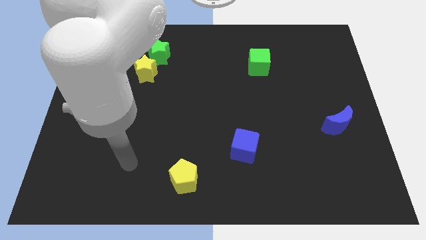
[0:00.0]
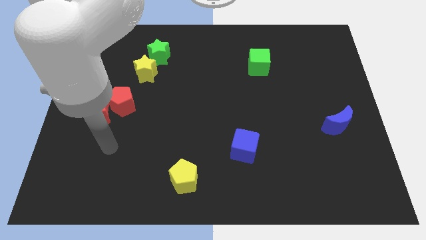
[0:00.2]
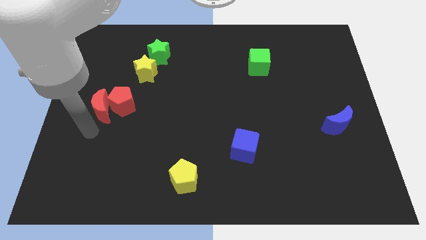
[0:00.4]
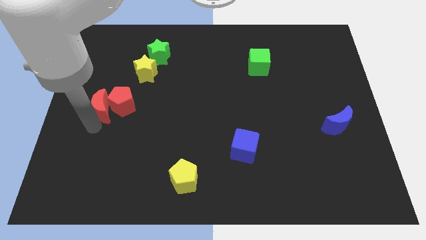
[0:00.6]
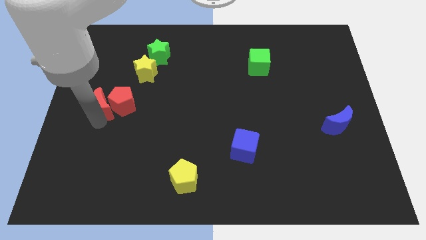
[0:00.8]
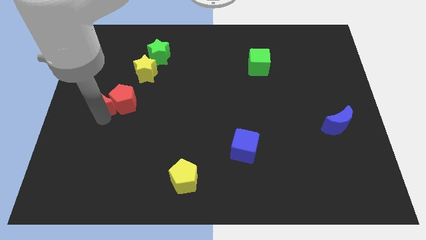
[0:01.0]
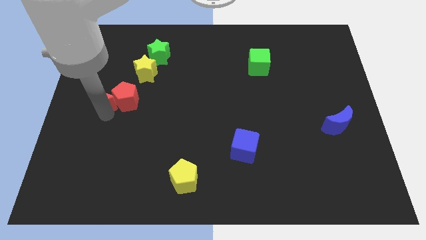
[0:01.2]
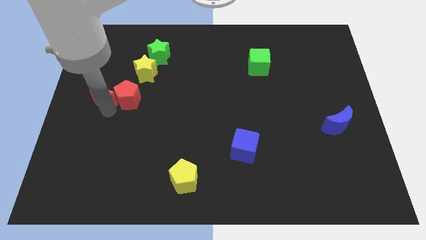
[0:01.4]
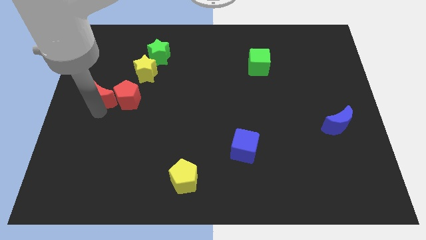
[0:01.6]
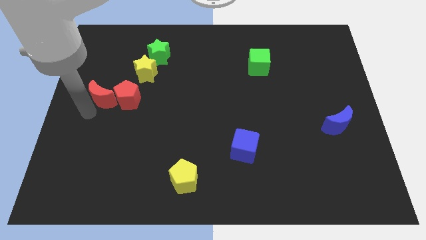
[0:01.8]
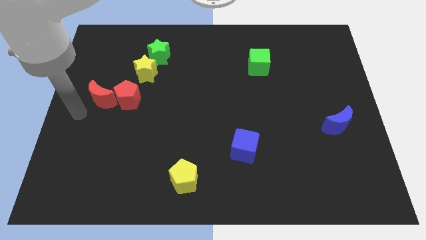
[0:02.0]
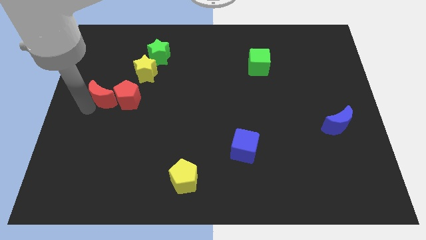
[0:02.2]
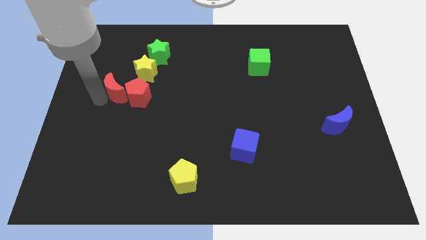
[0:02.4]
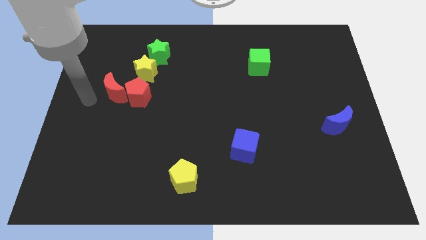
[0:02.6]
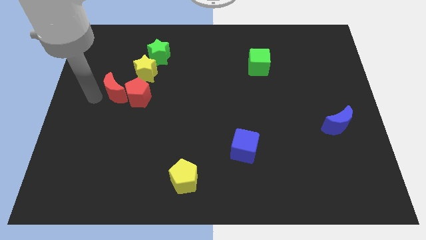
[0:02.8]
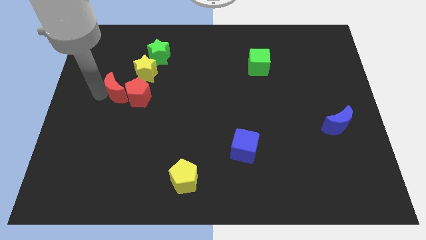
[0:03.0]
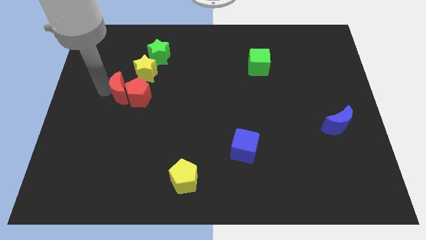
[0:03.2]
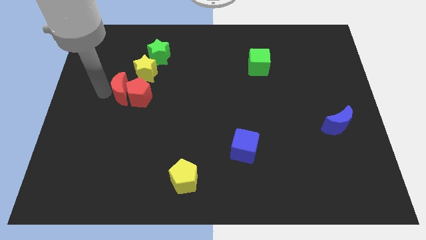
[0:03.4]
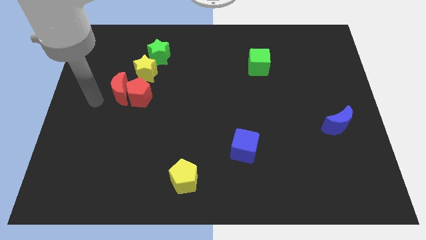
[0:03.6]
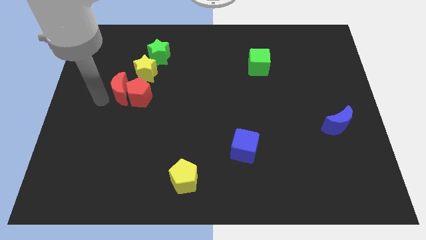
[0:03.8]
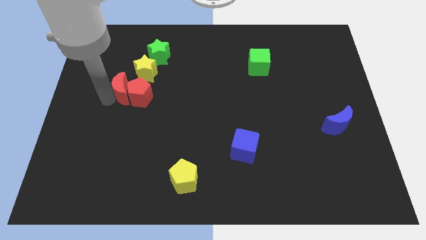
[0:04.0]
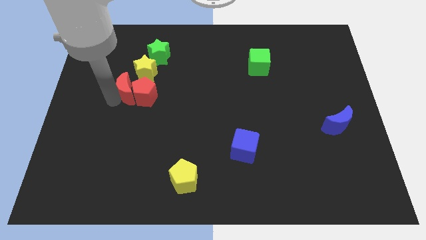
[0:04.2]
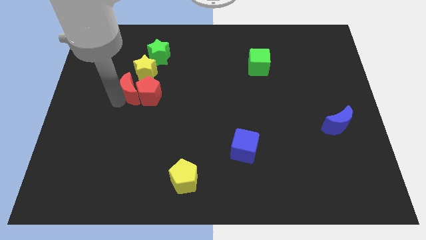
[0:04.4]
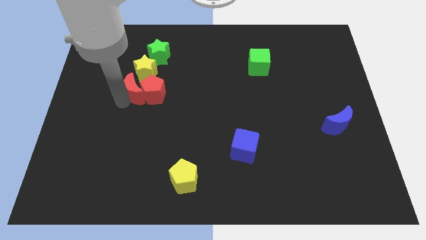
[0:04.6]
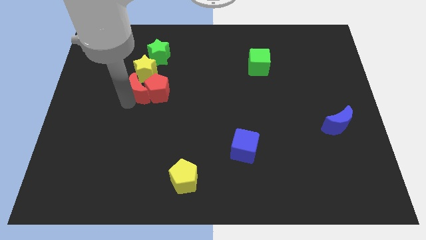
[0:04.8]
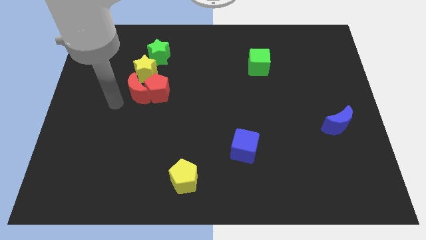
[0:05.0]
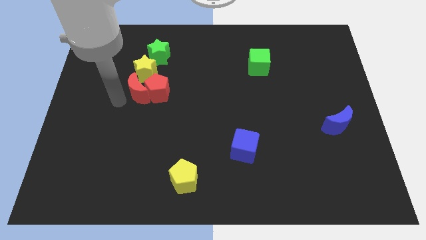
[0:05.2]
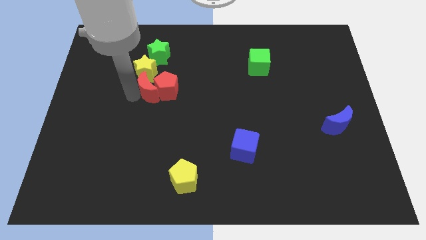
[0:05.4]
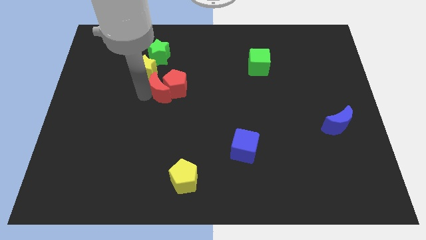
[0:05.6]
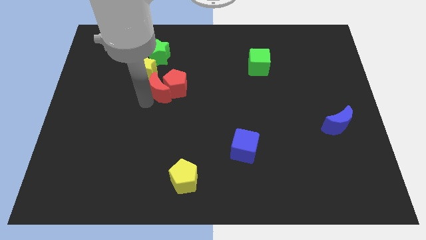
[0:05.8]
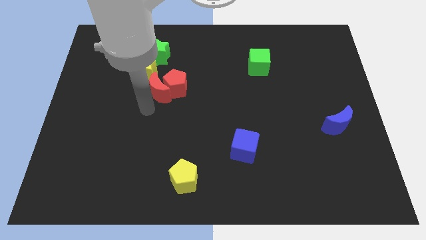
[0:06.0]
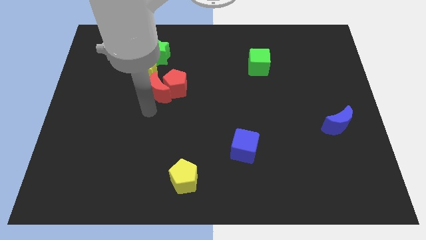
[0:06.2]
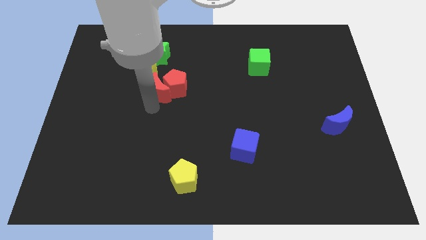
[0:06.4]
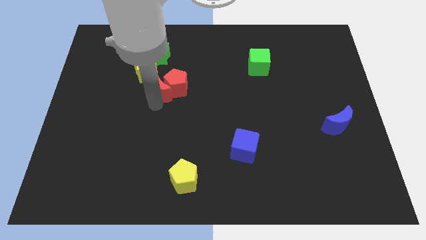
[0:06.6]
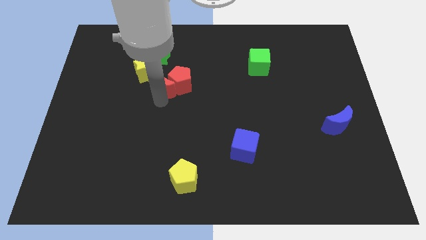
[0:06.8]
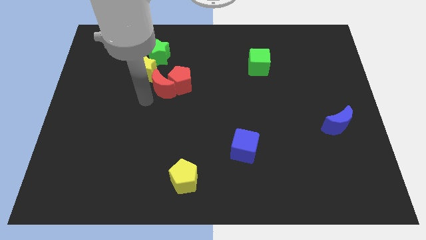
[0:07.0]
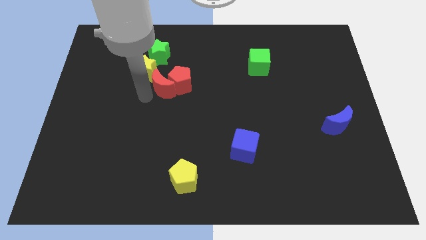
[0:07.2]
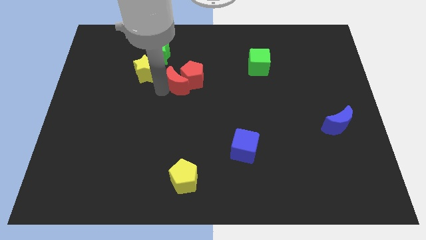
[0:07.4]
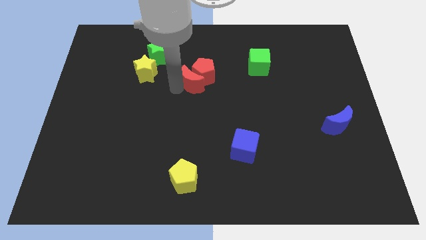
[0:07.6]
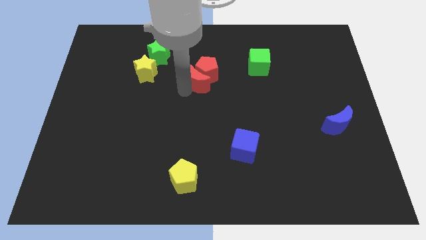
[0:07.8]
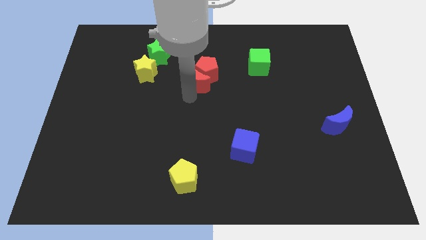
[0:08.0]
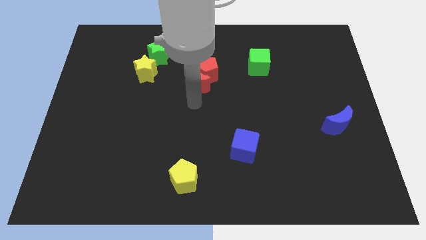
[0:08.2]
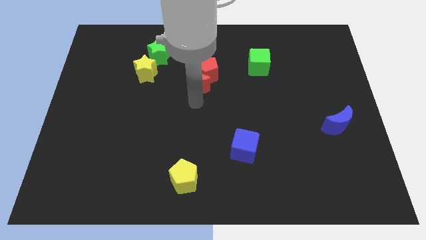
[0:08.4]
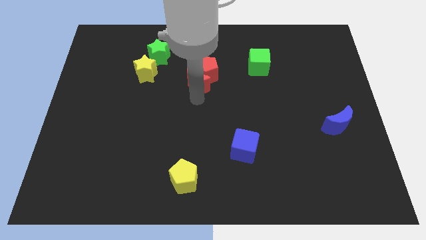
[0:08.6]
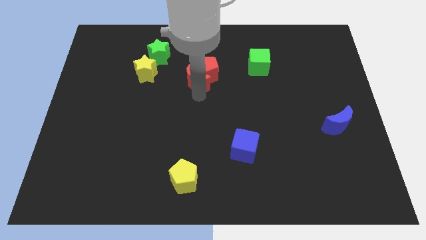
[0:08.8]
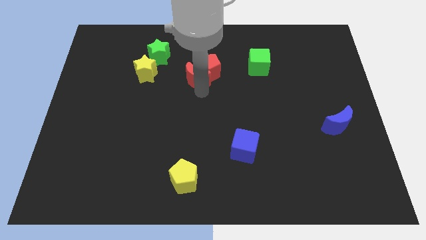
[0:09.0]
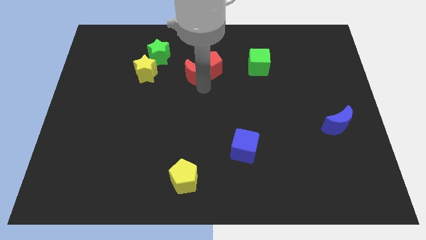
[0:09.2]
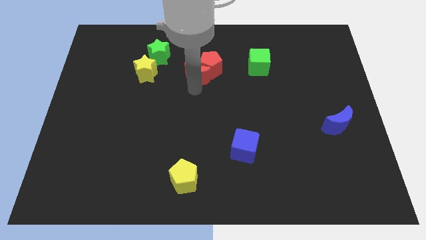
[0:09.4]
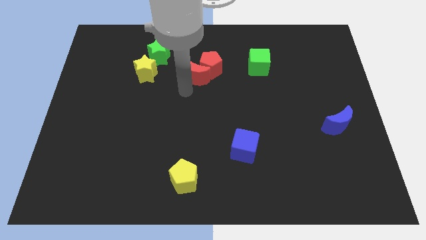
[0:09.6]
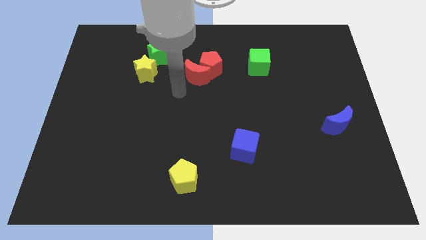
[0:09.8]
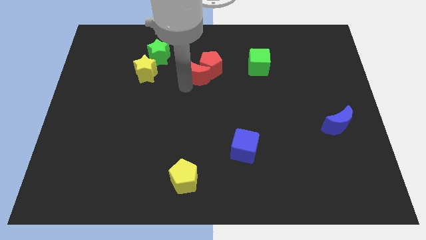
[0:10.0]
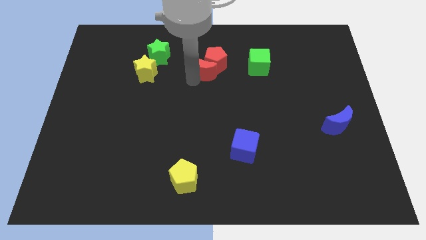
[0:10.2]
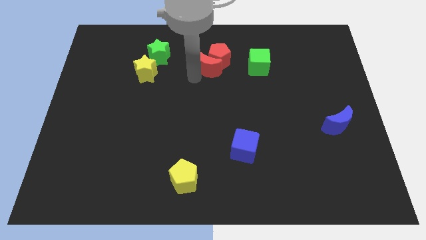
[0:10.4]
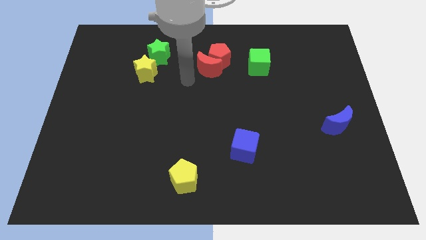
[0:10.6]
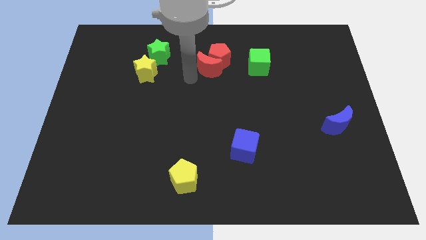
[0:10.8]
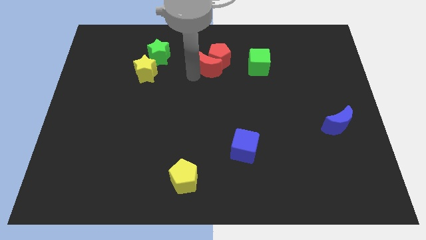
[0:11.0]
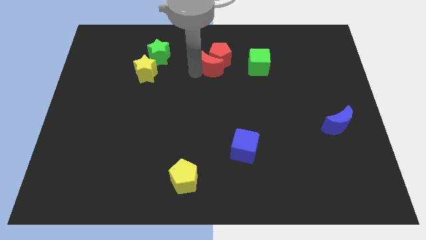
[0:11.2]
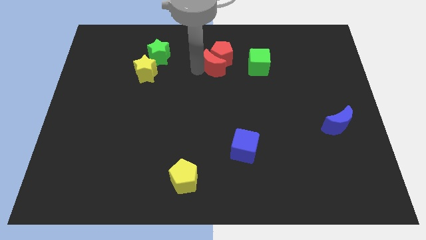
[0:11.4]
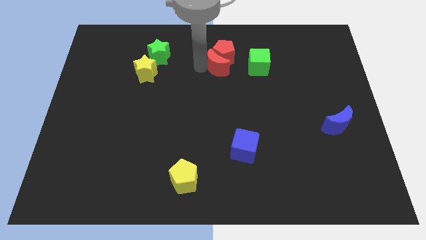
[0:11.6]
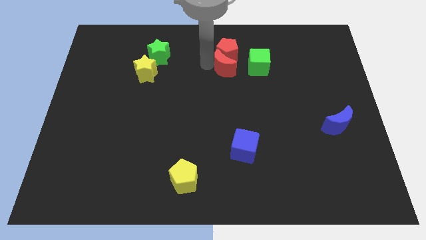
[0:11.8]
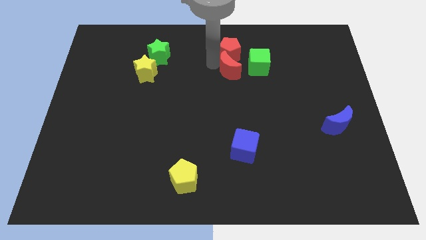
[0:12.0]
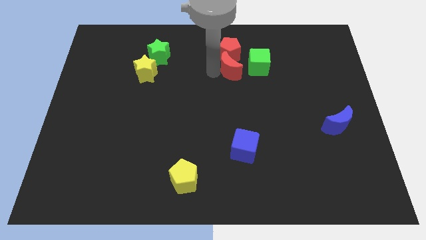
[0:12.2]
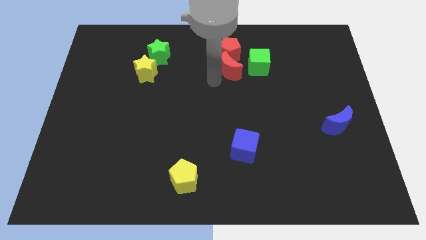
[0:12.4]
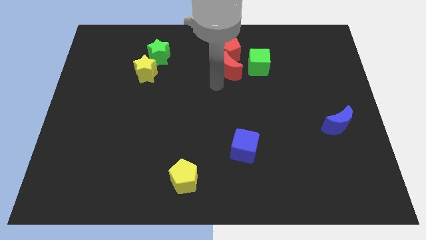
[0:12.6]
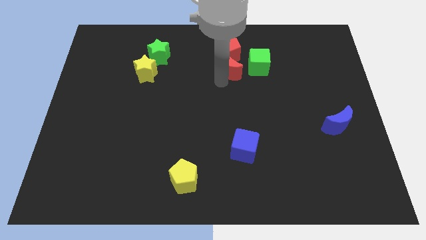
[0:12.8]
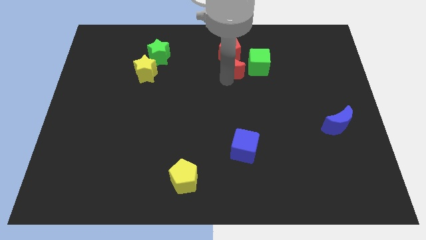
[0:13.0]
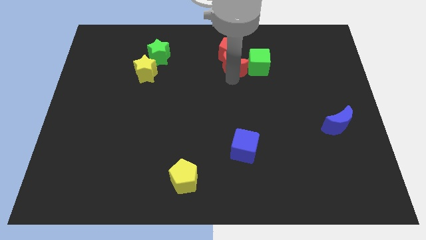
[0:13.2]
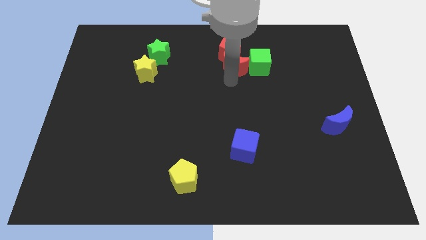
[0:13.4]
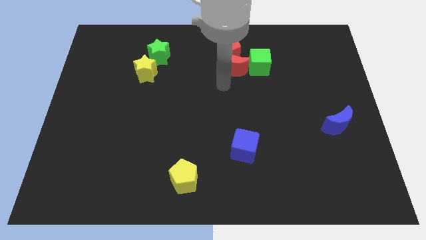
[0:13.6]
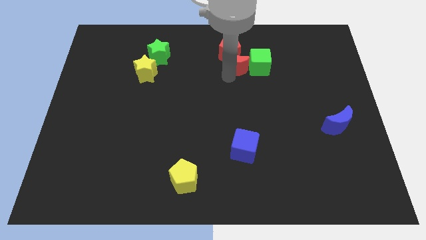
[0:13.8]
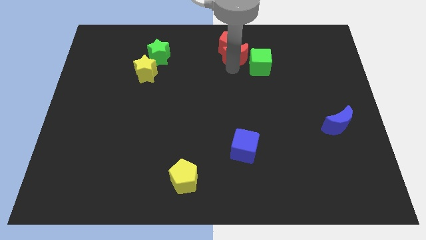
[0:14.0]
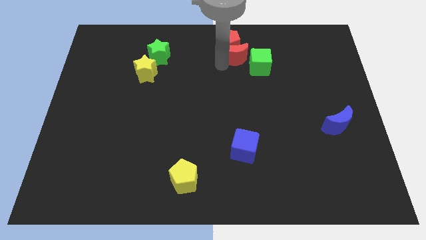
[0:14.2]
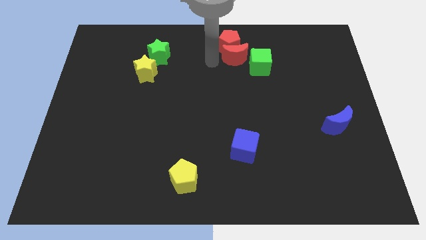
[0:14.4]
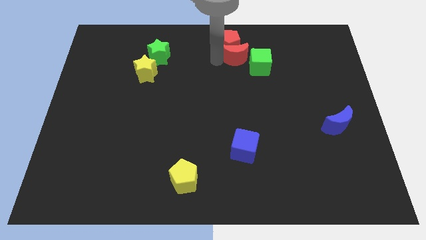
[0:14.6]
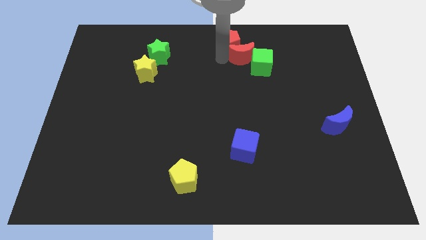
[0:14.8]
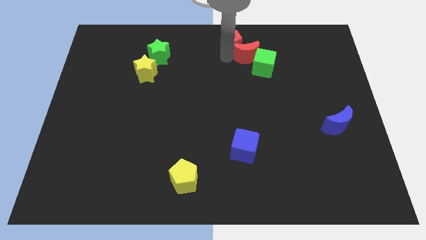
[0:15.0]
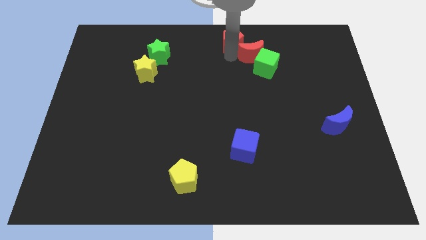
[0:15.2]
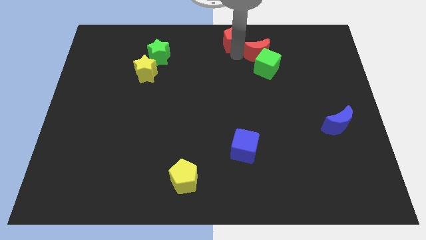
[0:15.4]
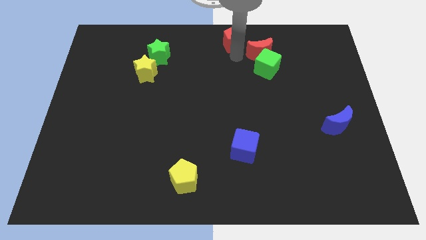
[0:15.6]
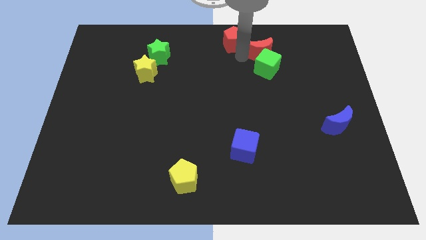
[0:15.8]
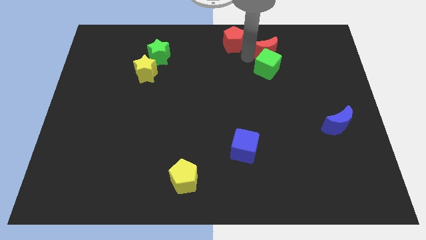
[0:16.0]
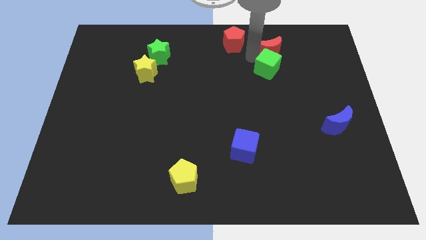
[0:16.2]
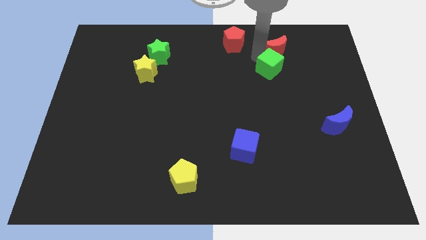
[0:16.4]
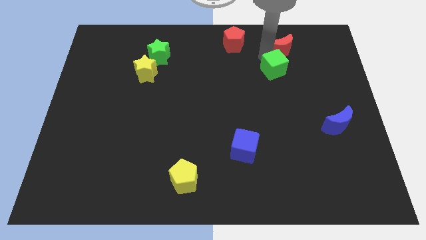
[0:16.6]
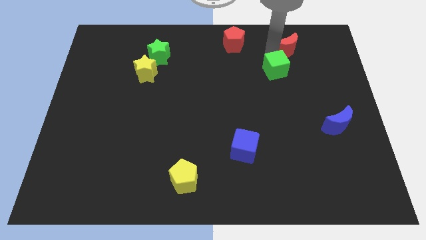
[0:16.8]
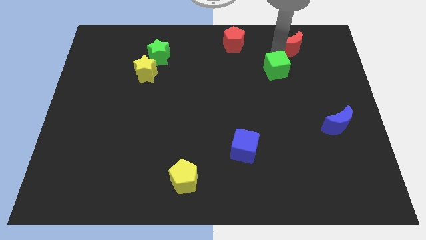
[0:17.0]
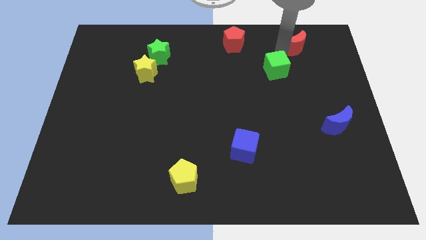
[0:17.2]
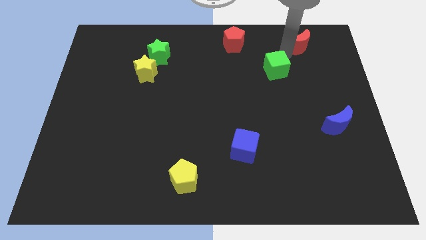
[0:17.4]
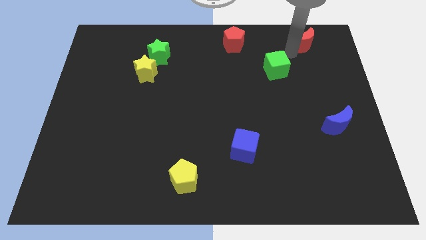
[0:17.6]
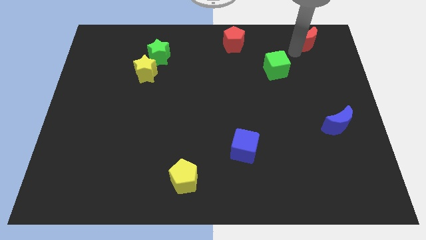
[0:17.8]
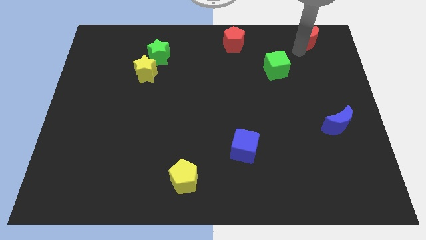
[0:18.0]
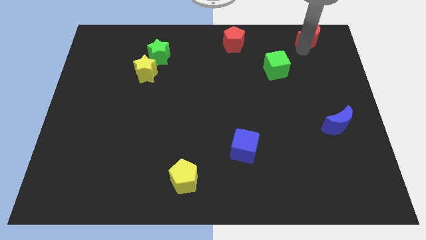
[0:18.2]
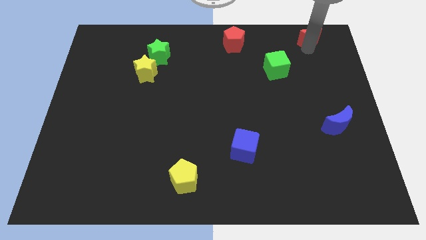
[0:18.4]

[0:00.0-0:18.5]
push the red moon to the top right corner
